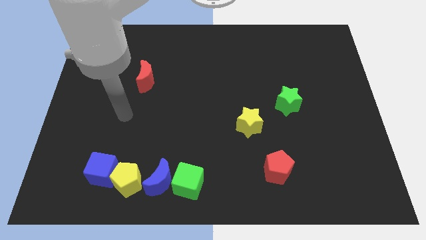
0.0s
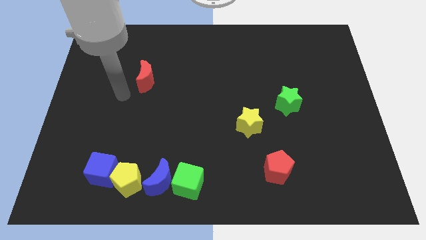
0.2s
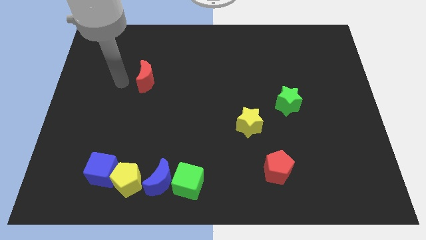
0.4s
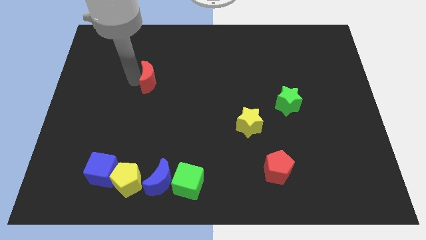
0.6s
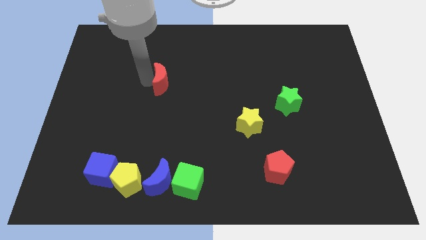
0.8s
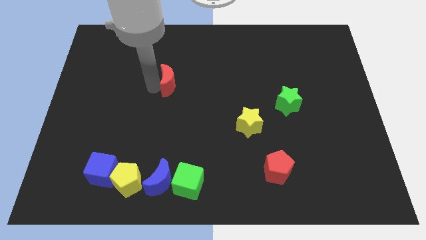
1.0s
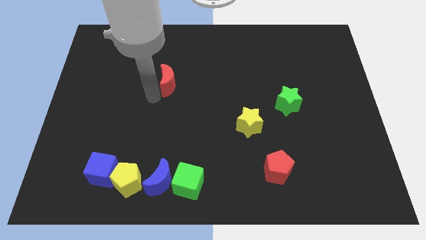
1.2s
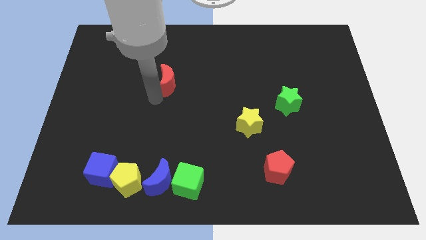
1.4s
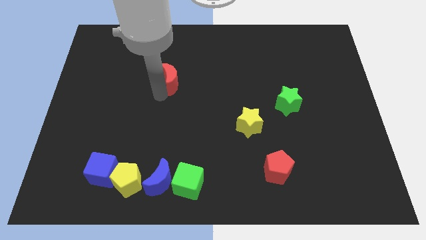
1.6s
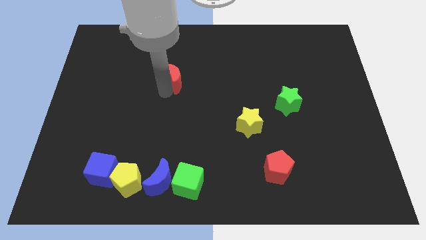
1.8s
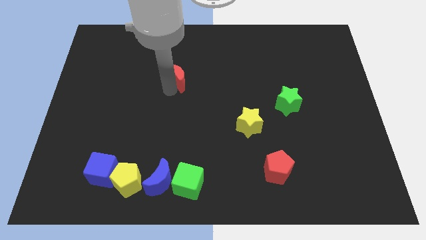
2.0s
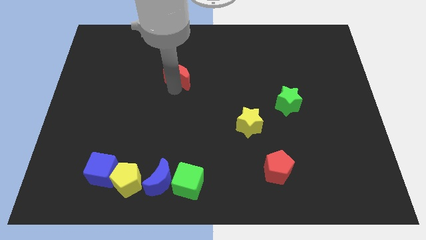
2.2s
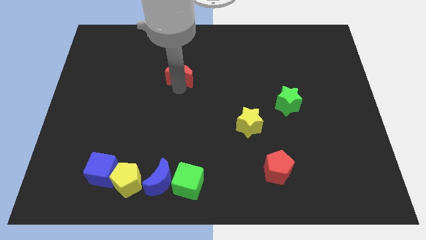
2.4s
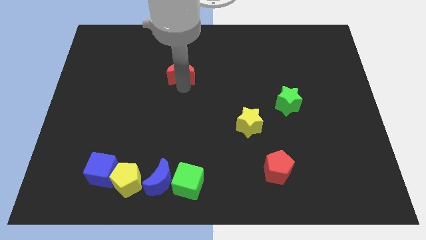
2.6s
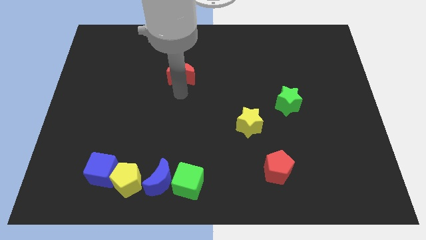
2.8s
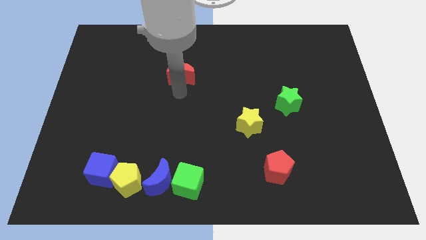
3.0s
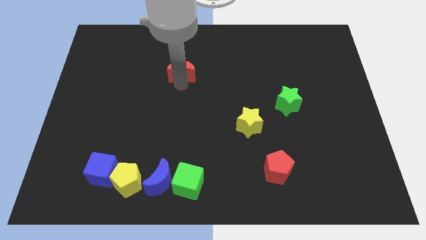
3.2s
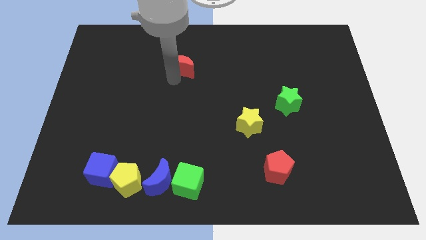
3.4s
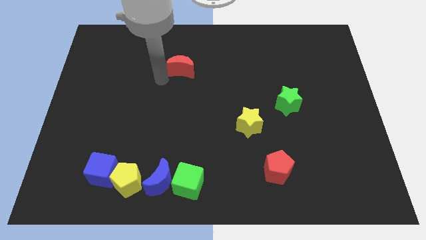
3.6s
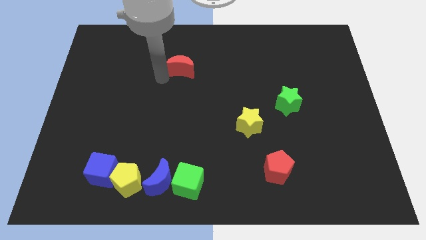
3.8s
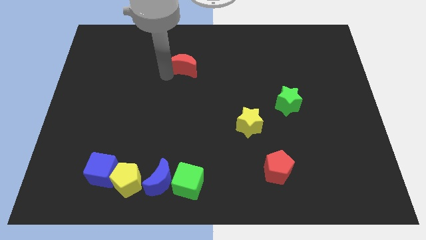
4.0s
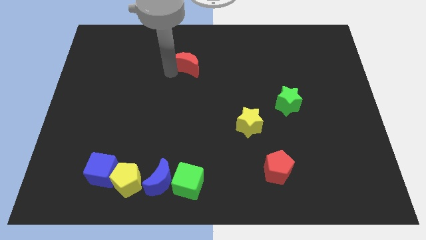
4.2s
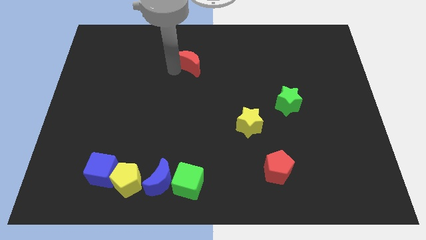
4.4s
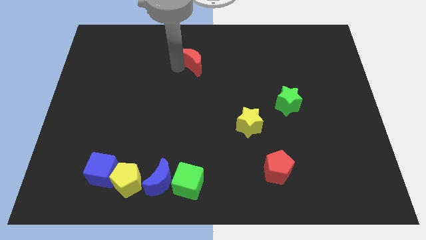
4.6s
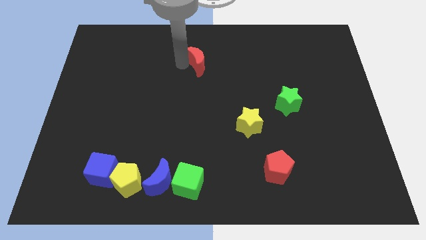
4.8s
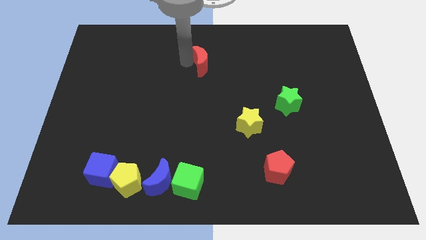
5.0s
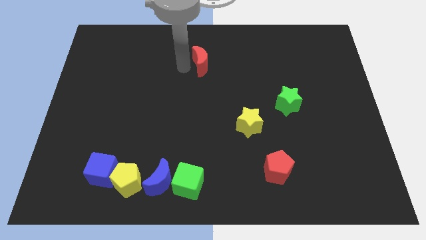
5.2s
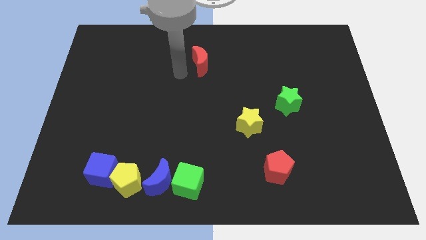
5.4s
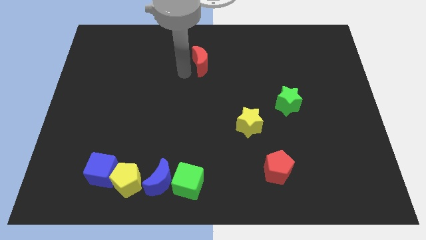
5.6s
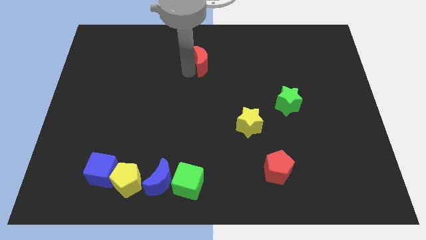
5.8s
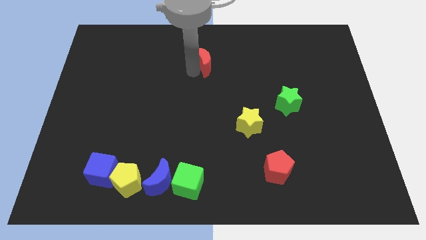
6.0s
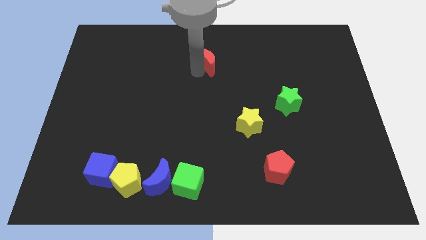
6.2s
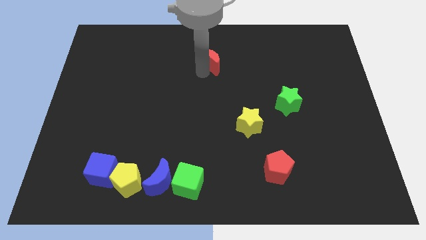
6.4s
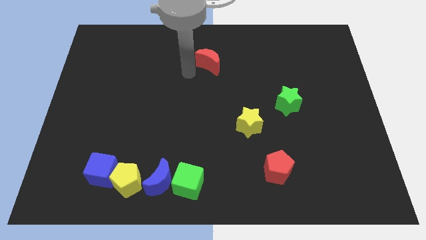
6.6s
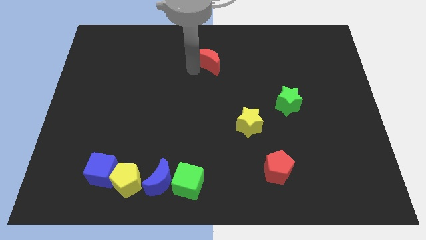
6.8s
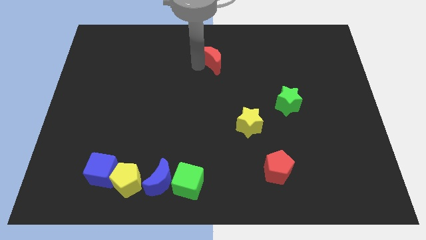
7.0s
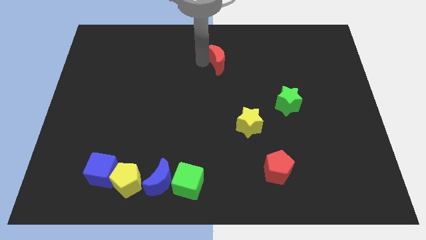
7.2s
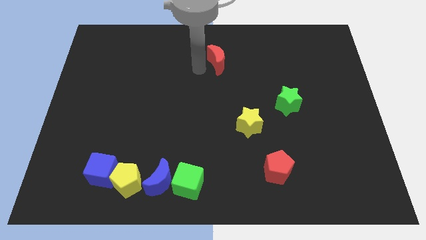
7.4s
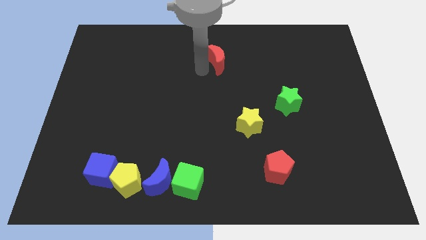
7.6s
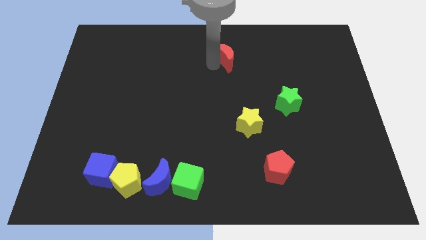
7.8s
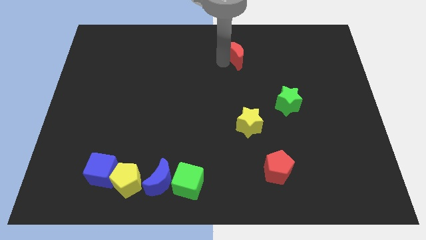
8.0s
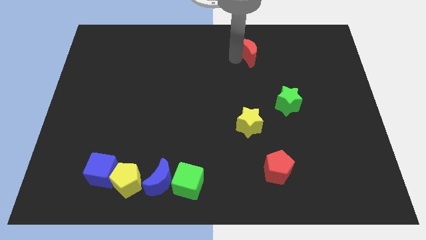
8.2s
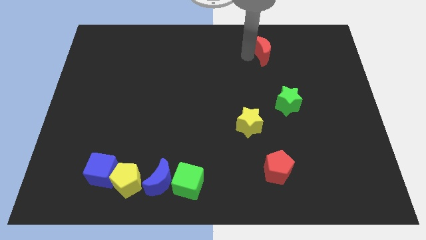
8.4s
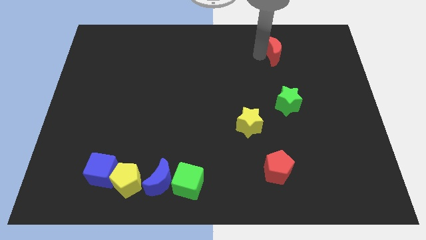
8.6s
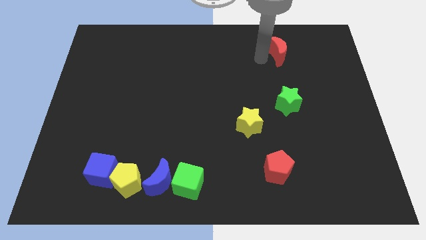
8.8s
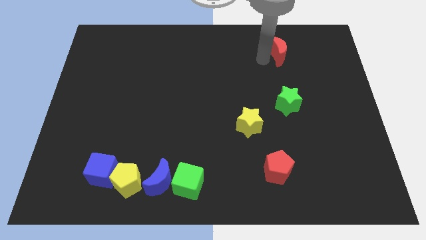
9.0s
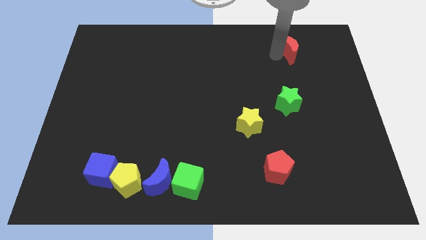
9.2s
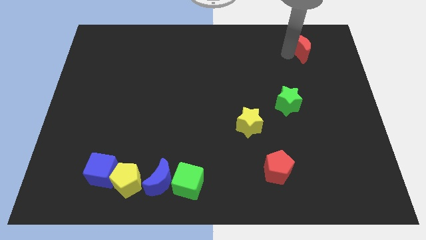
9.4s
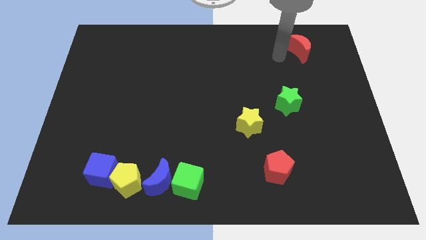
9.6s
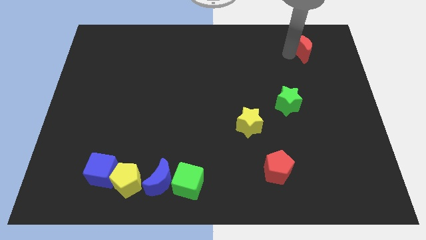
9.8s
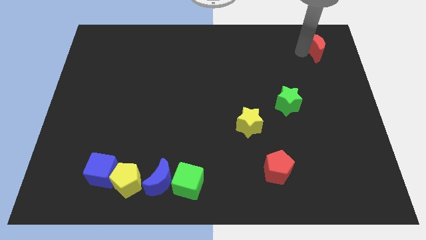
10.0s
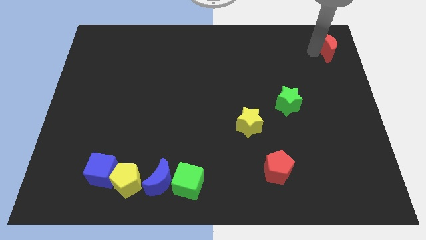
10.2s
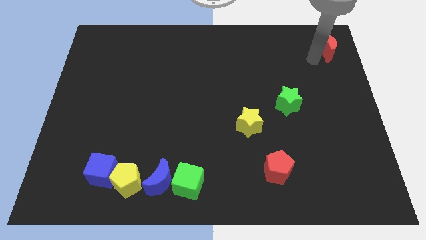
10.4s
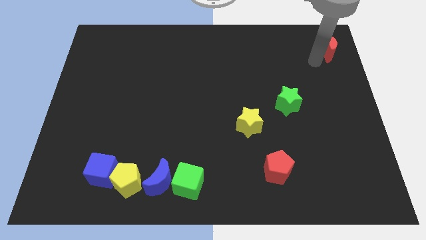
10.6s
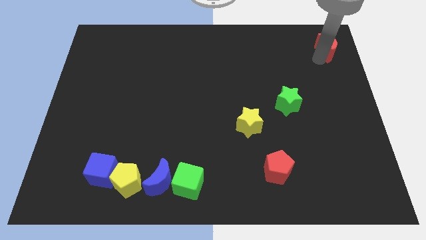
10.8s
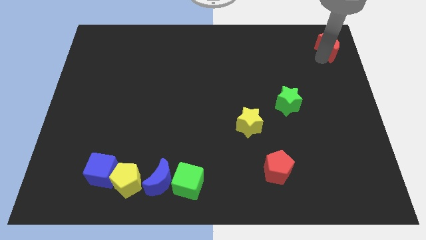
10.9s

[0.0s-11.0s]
push the red moon to the top right corner
